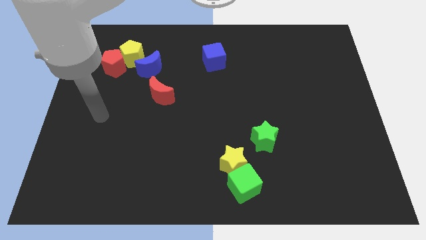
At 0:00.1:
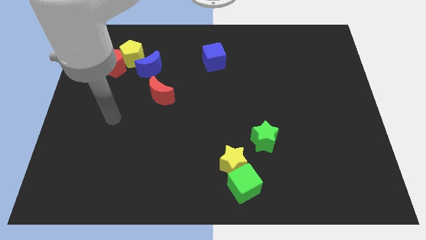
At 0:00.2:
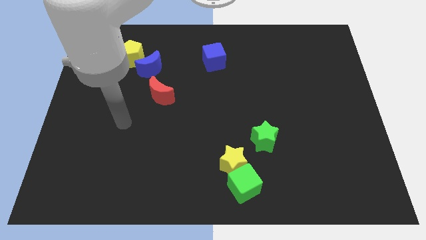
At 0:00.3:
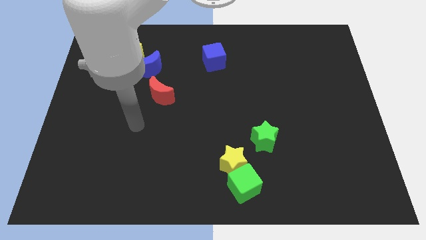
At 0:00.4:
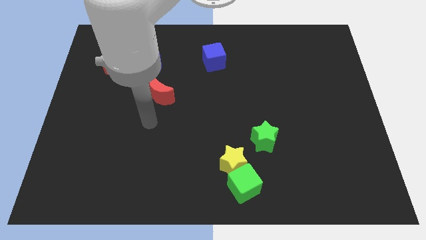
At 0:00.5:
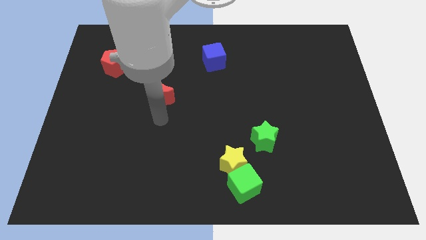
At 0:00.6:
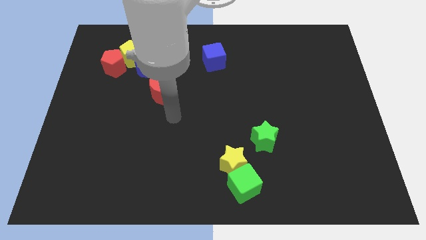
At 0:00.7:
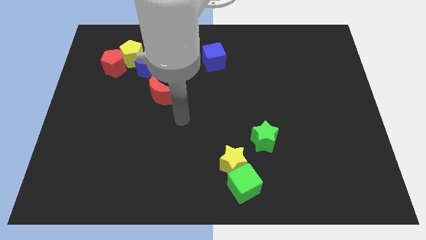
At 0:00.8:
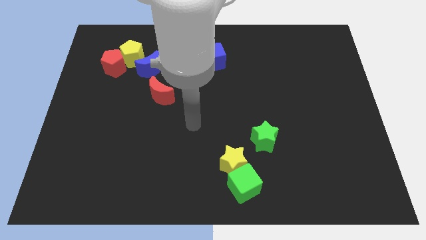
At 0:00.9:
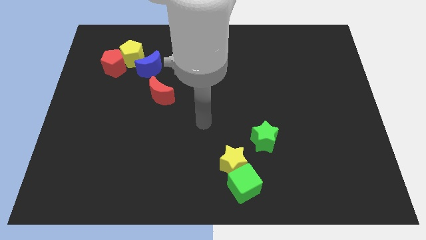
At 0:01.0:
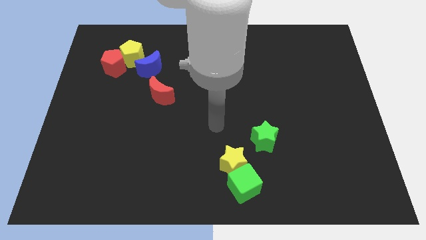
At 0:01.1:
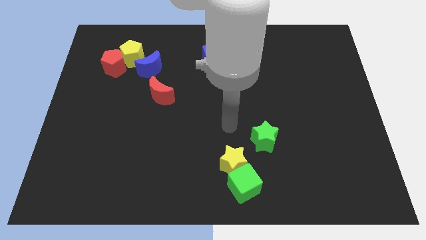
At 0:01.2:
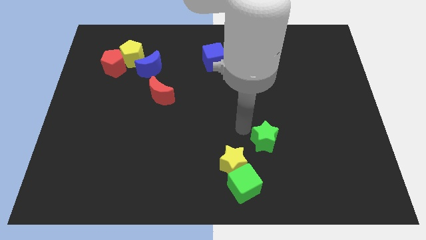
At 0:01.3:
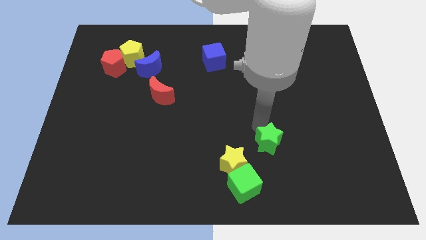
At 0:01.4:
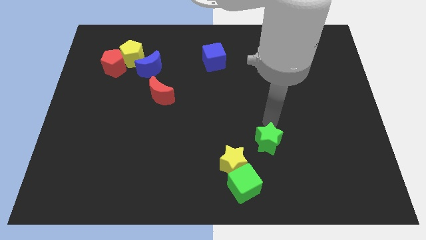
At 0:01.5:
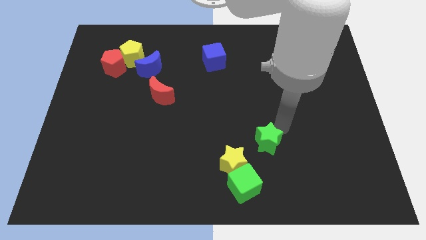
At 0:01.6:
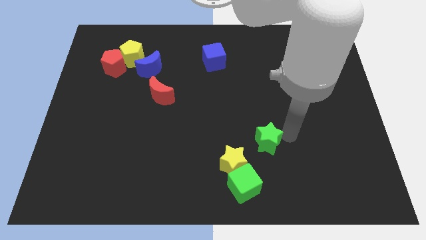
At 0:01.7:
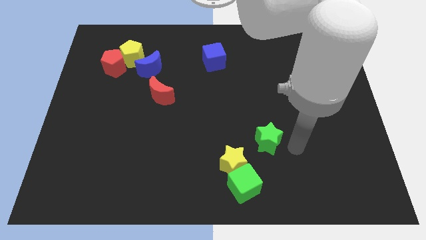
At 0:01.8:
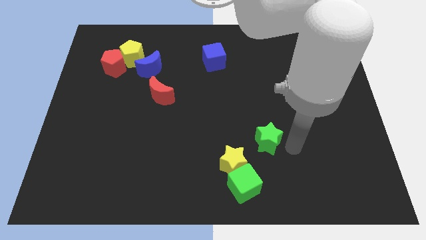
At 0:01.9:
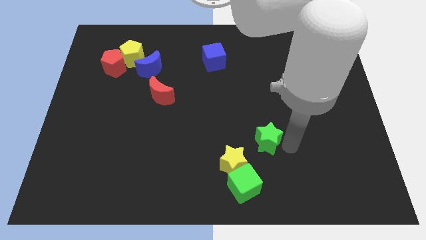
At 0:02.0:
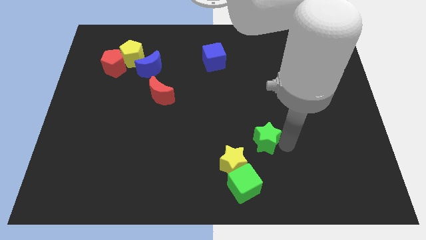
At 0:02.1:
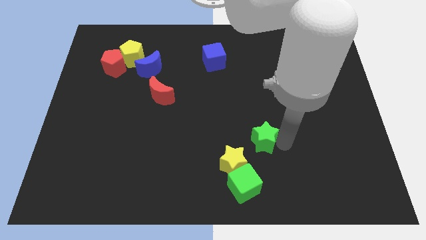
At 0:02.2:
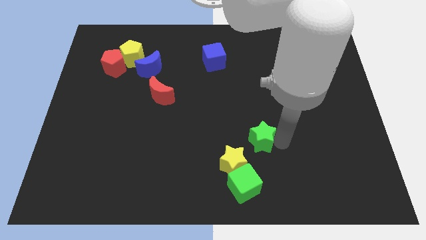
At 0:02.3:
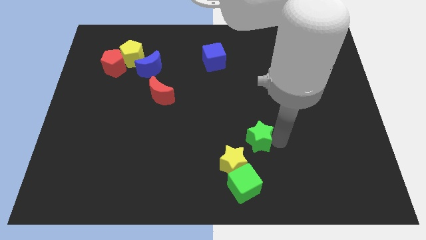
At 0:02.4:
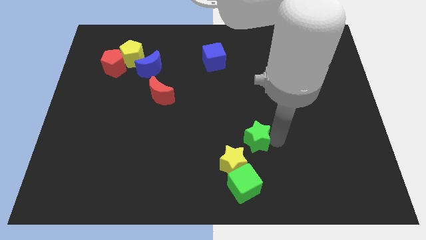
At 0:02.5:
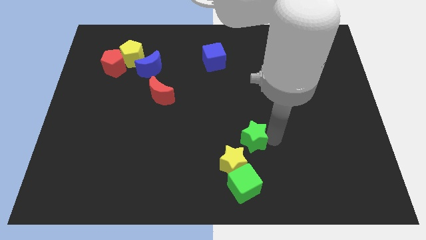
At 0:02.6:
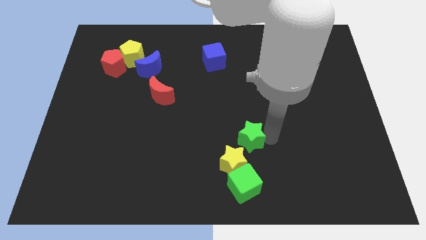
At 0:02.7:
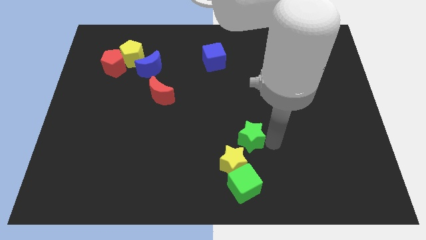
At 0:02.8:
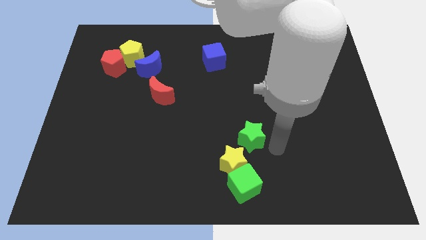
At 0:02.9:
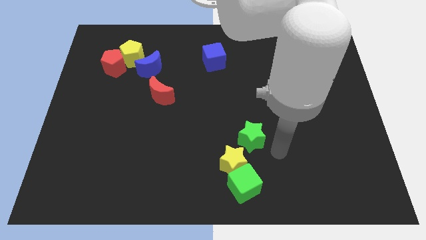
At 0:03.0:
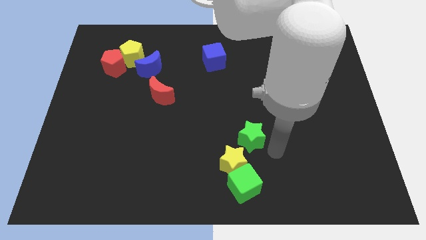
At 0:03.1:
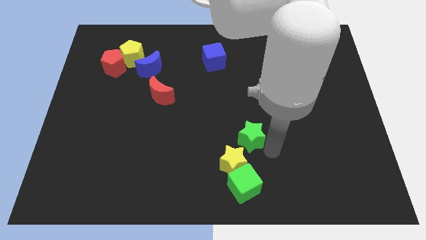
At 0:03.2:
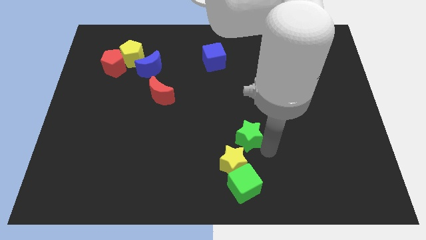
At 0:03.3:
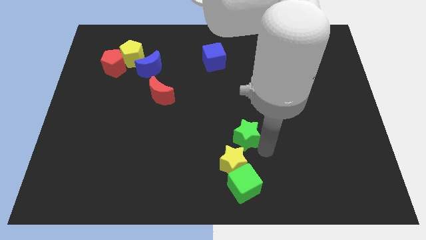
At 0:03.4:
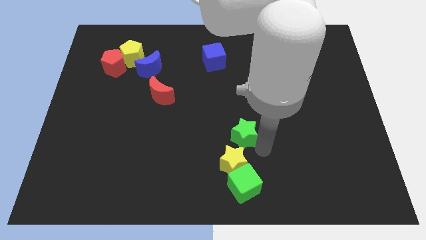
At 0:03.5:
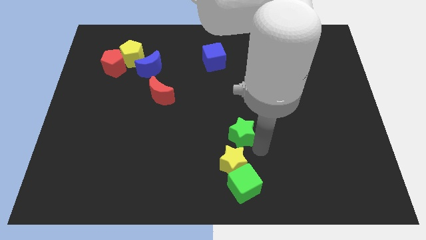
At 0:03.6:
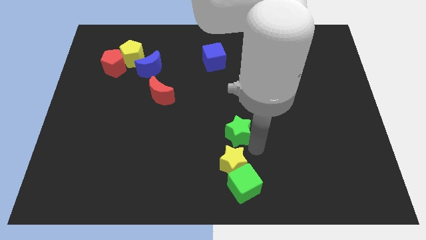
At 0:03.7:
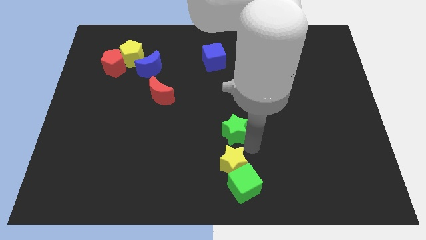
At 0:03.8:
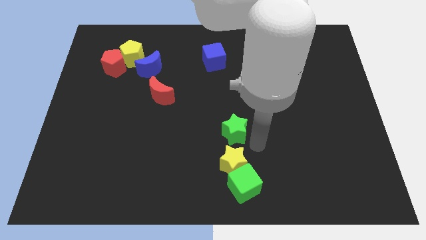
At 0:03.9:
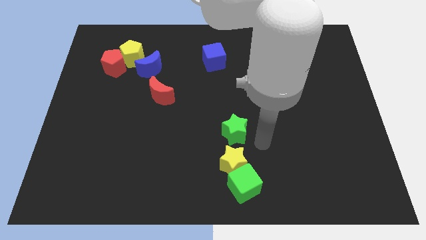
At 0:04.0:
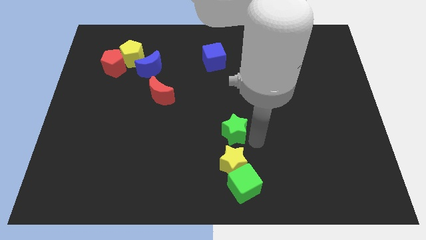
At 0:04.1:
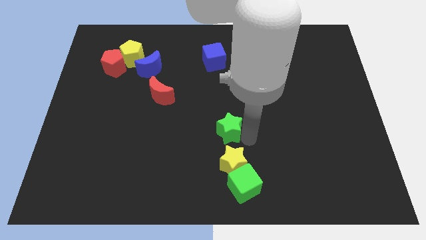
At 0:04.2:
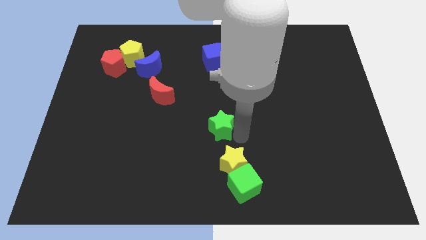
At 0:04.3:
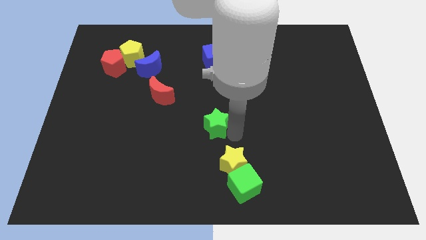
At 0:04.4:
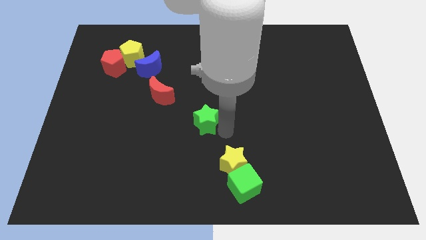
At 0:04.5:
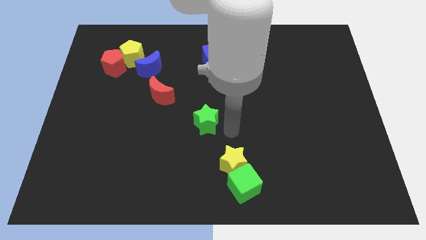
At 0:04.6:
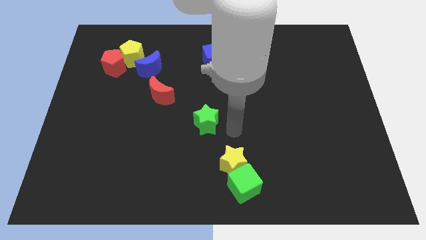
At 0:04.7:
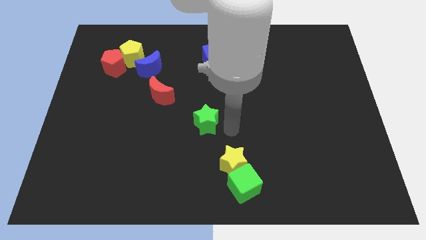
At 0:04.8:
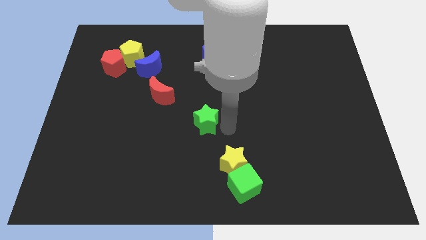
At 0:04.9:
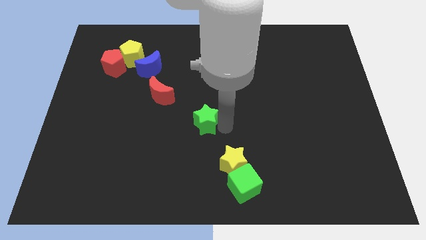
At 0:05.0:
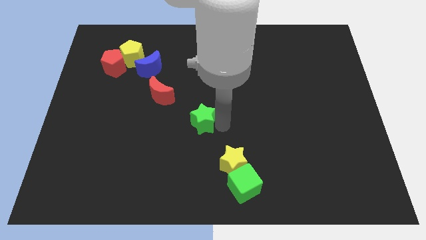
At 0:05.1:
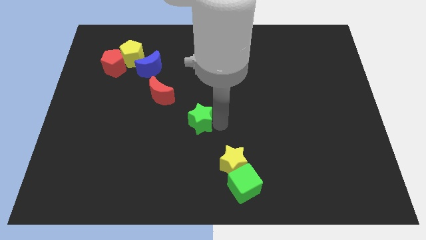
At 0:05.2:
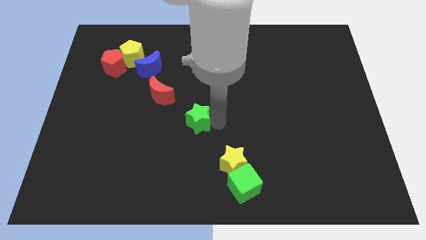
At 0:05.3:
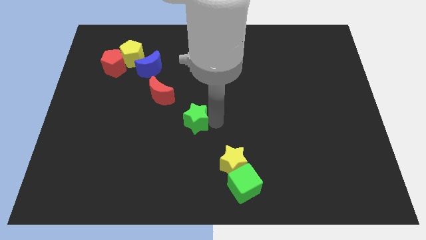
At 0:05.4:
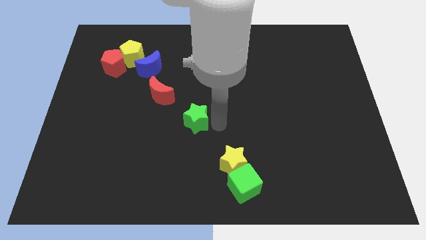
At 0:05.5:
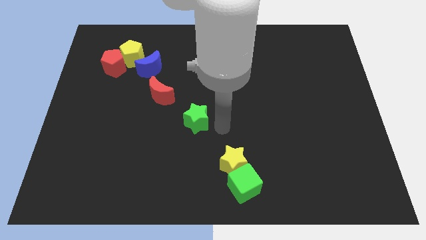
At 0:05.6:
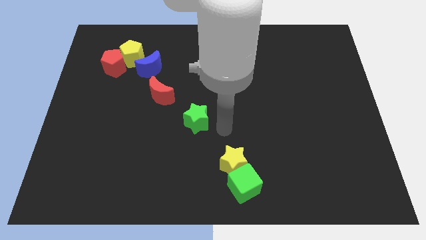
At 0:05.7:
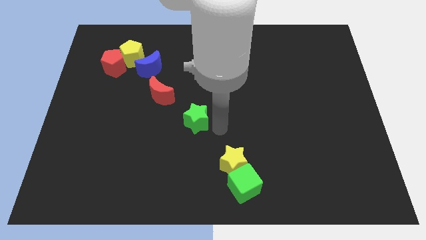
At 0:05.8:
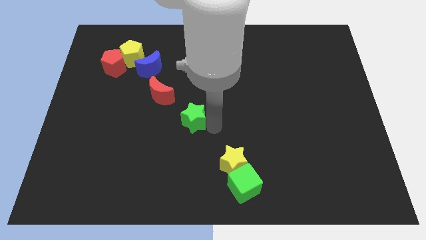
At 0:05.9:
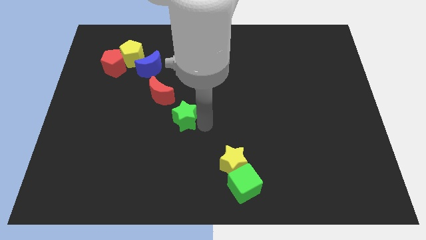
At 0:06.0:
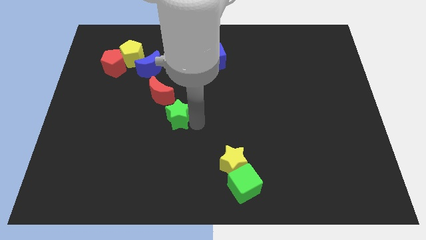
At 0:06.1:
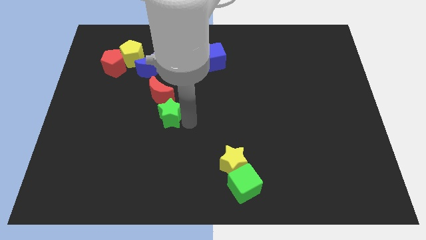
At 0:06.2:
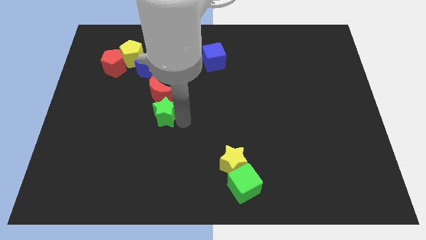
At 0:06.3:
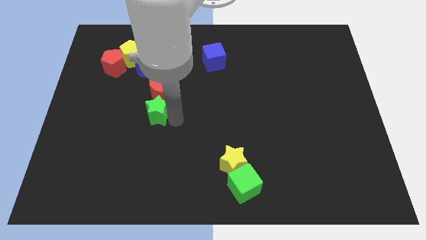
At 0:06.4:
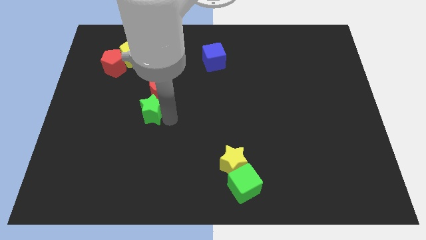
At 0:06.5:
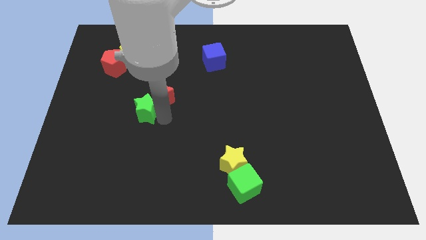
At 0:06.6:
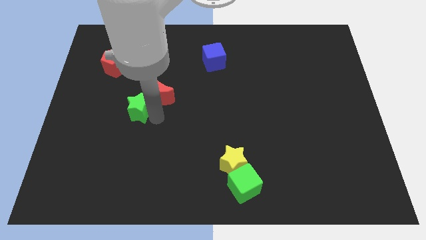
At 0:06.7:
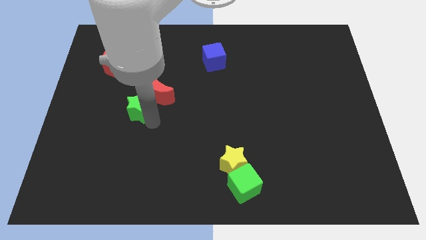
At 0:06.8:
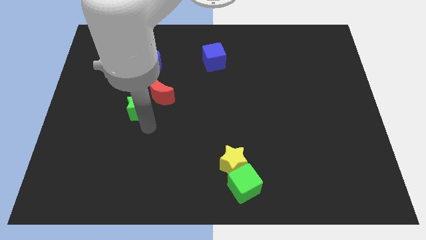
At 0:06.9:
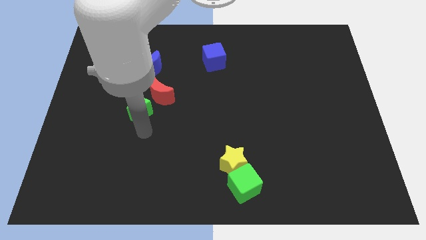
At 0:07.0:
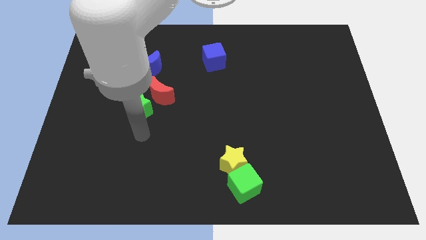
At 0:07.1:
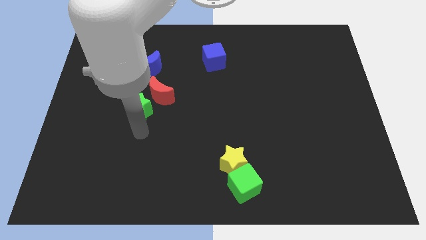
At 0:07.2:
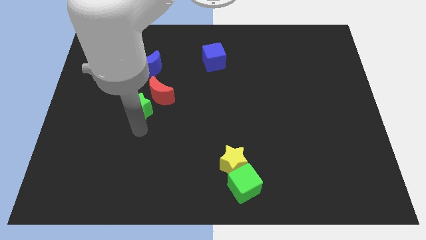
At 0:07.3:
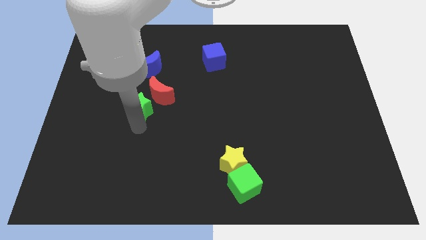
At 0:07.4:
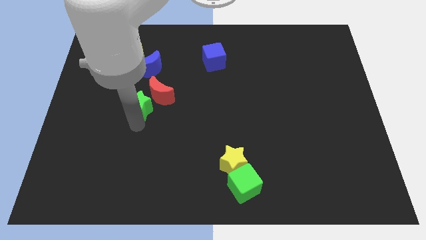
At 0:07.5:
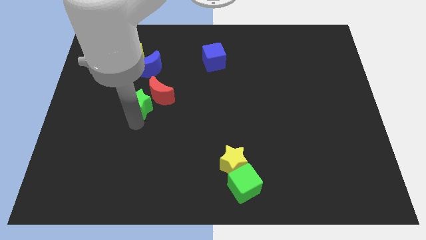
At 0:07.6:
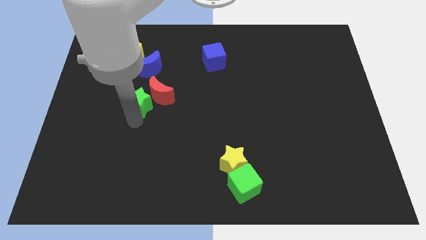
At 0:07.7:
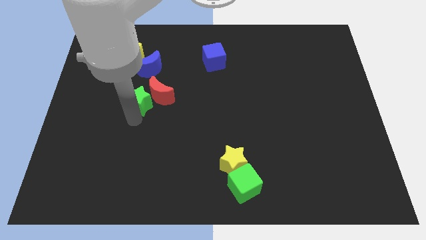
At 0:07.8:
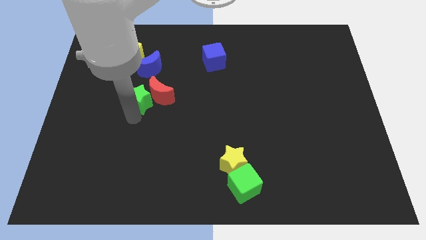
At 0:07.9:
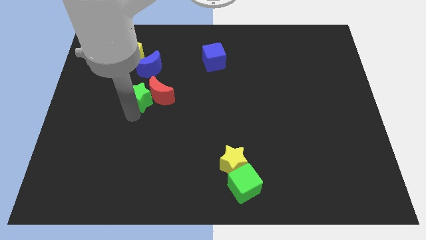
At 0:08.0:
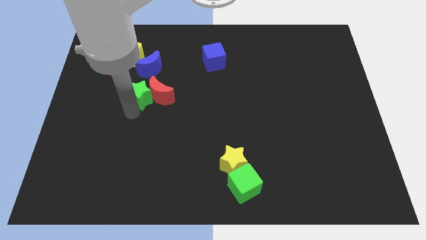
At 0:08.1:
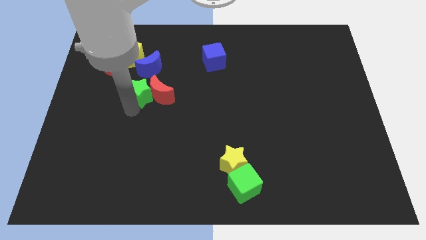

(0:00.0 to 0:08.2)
put the green star diagonally down and to the right of the red pentagon

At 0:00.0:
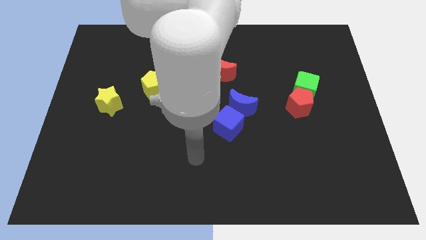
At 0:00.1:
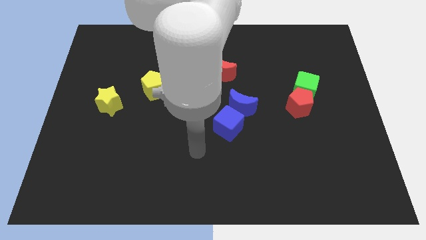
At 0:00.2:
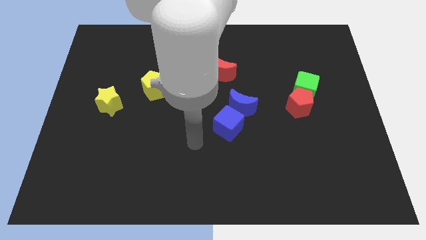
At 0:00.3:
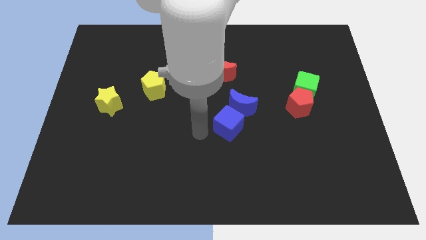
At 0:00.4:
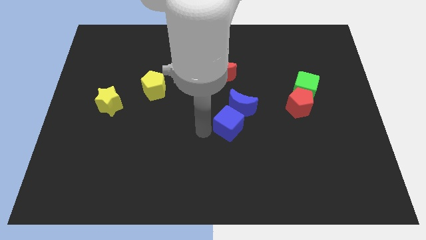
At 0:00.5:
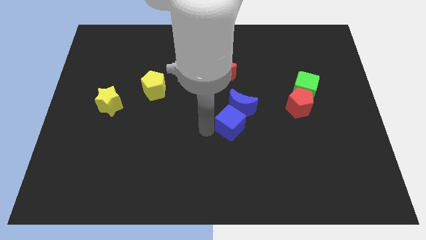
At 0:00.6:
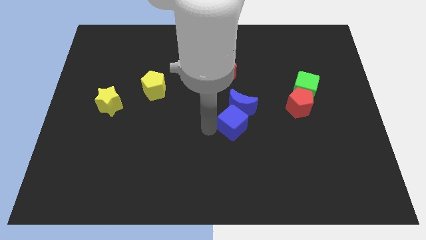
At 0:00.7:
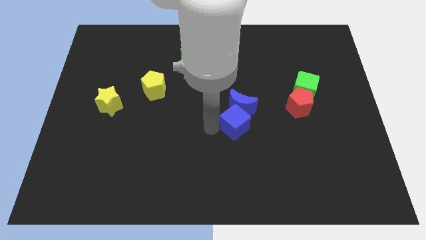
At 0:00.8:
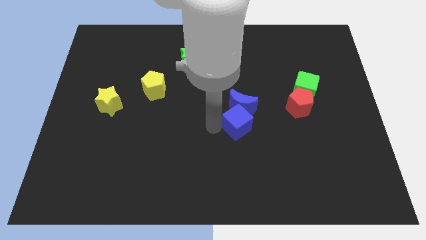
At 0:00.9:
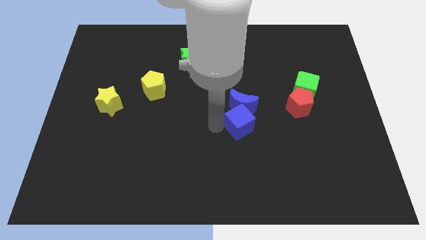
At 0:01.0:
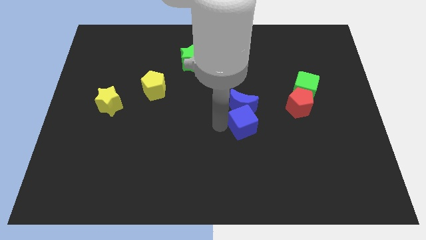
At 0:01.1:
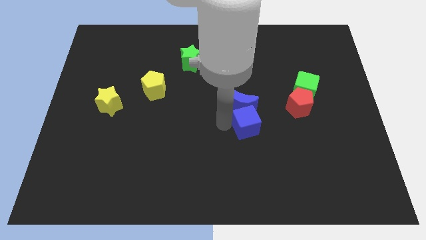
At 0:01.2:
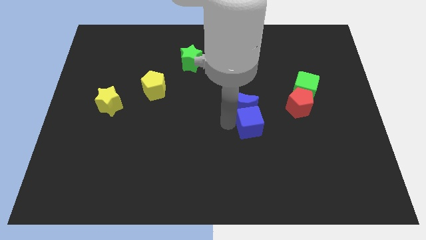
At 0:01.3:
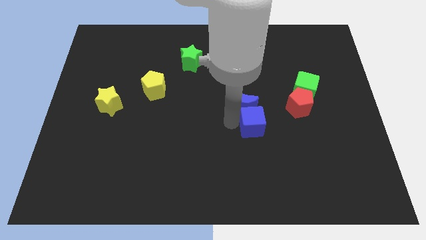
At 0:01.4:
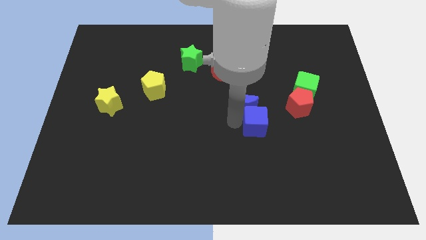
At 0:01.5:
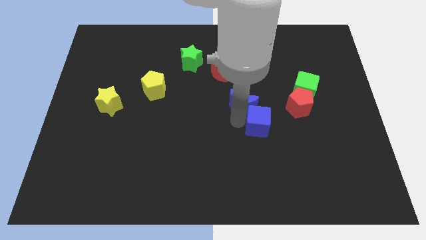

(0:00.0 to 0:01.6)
slide the blue cube to the bottom left side of the red pentagon
